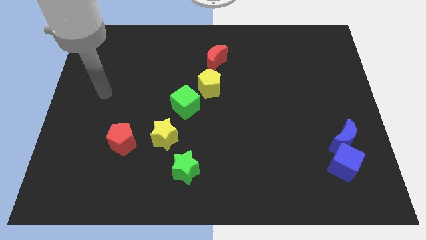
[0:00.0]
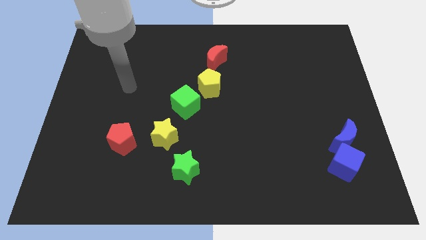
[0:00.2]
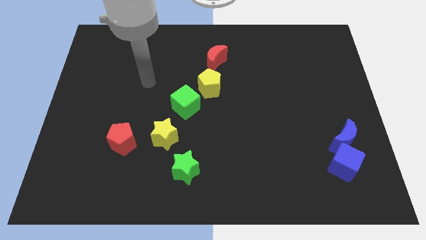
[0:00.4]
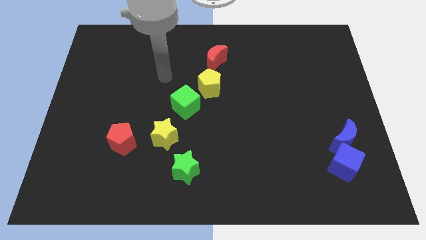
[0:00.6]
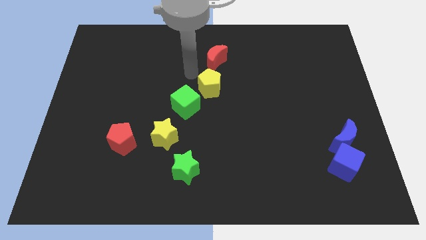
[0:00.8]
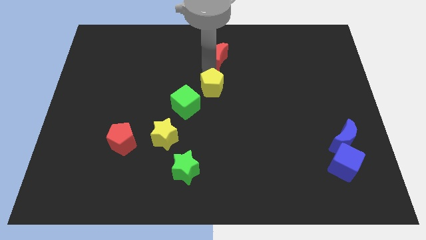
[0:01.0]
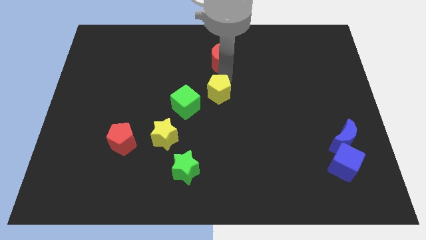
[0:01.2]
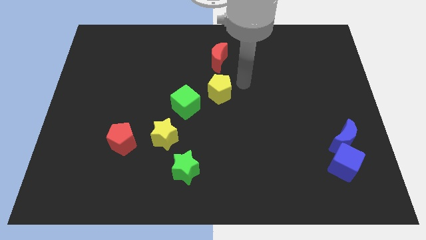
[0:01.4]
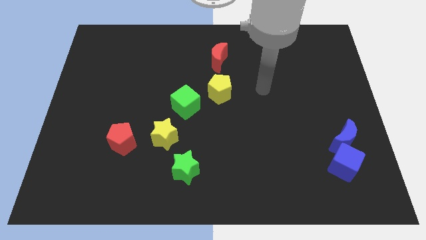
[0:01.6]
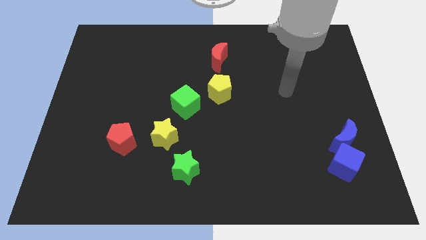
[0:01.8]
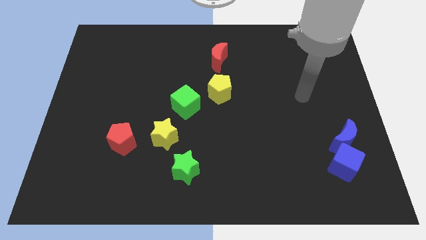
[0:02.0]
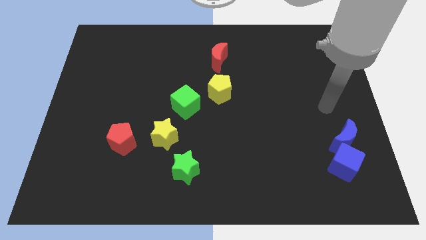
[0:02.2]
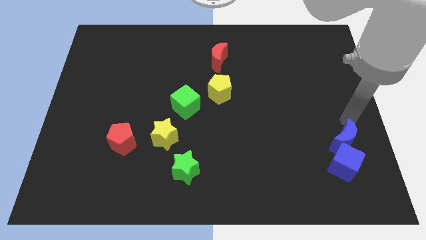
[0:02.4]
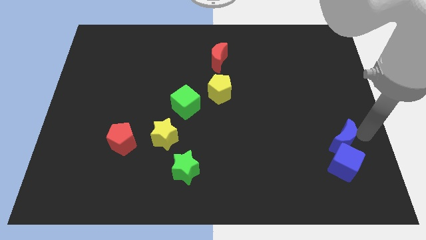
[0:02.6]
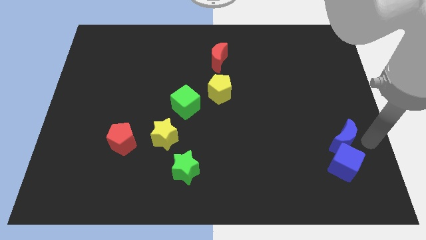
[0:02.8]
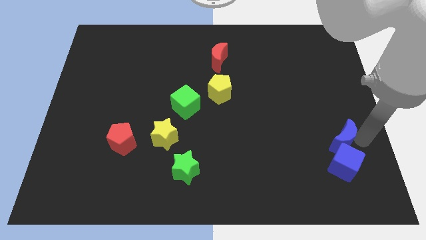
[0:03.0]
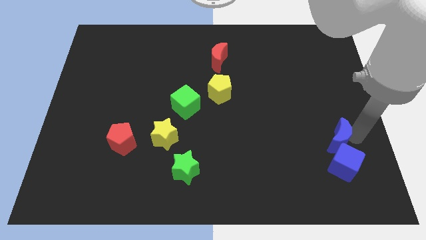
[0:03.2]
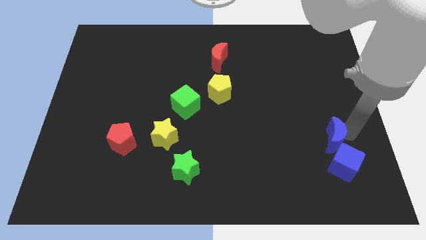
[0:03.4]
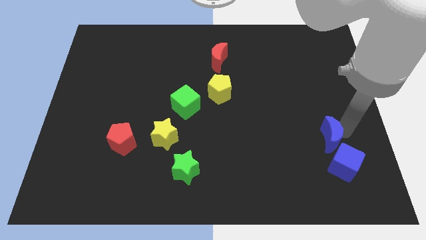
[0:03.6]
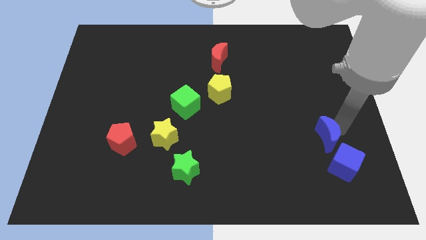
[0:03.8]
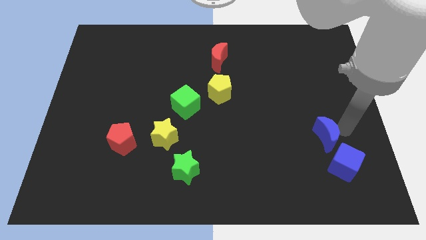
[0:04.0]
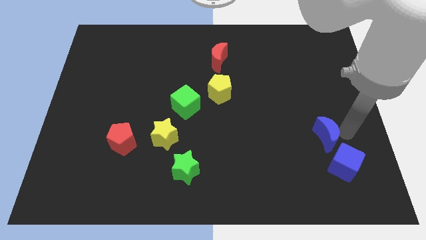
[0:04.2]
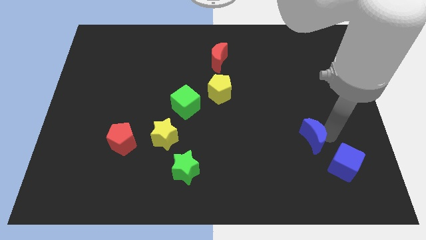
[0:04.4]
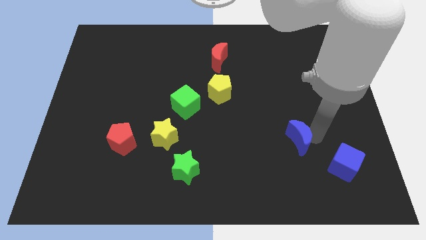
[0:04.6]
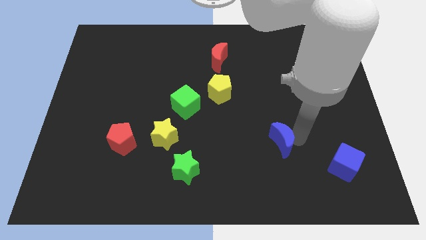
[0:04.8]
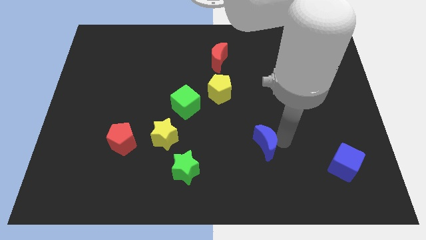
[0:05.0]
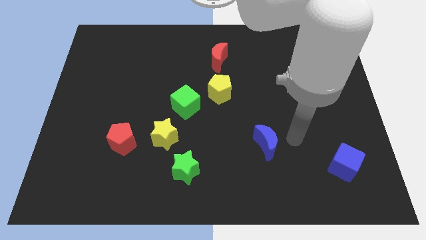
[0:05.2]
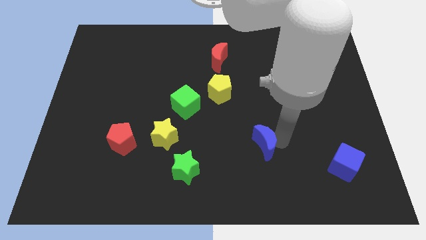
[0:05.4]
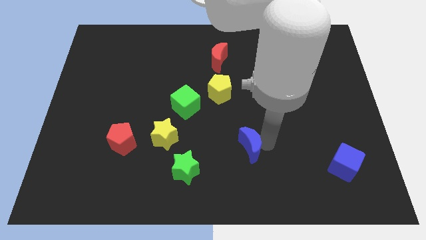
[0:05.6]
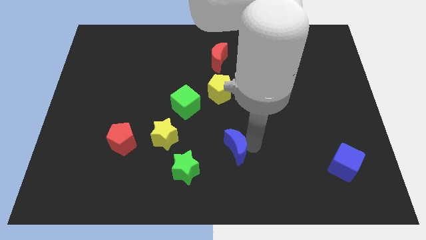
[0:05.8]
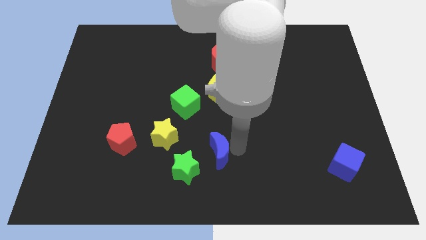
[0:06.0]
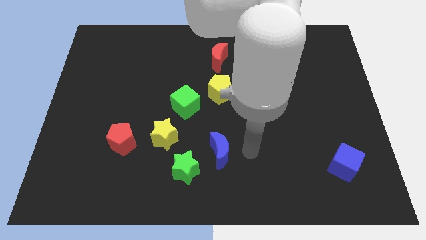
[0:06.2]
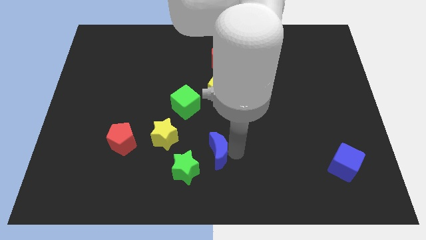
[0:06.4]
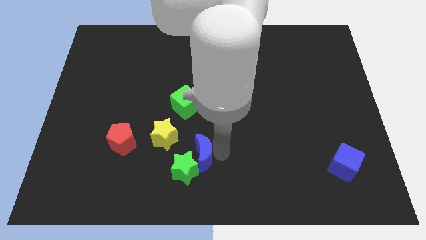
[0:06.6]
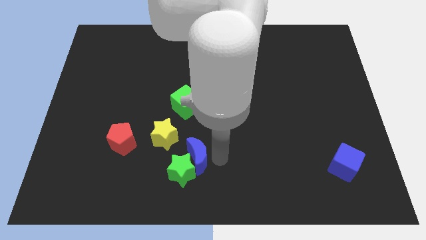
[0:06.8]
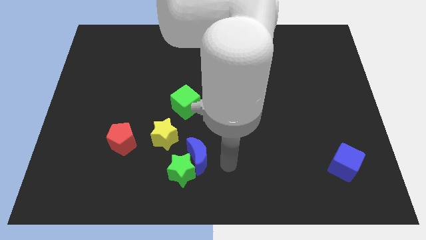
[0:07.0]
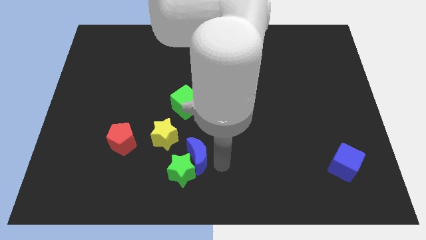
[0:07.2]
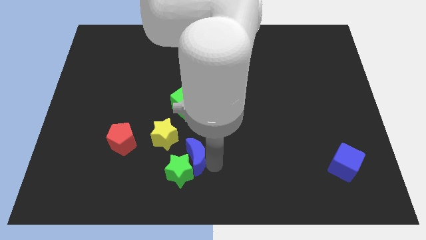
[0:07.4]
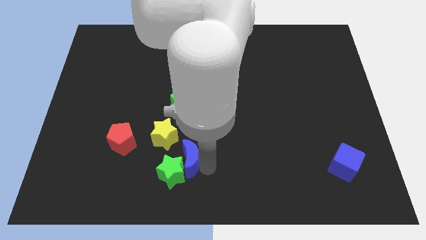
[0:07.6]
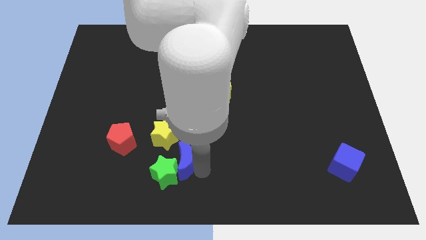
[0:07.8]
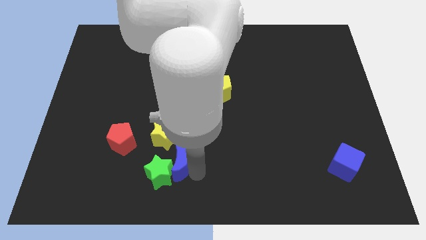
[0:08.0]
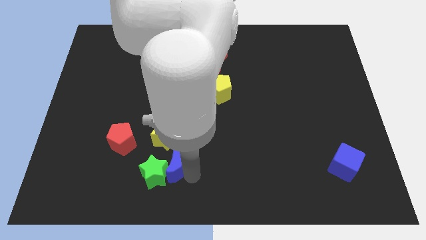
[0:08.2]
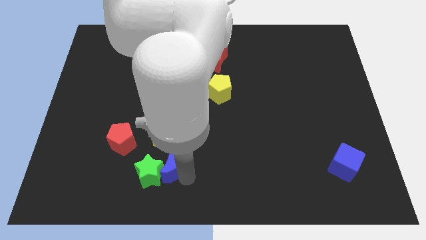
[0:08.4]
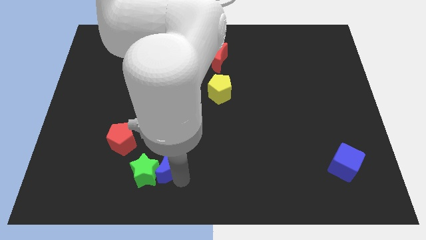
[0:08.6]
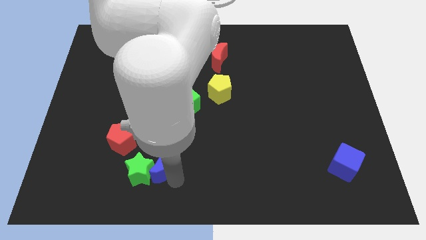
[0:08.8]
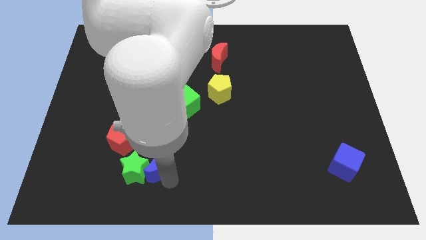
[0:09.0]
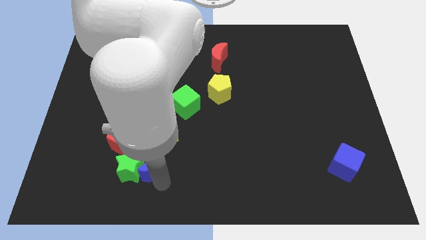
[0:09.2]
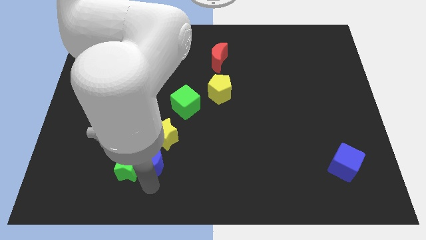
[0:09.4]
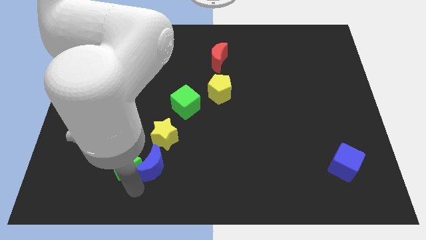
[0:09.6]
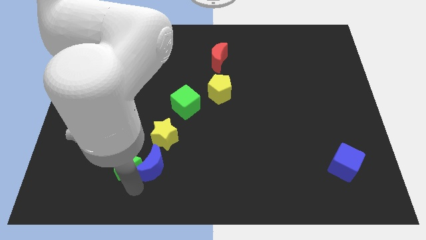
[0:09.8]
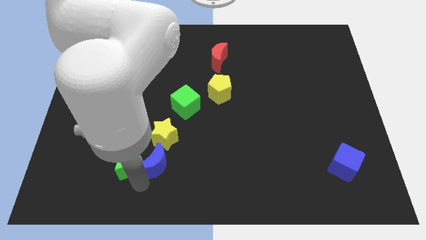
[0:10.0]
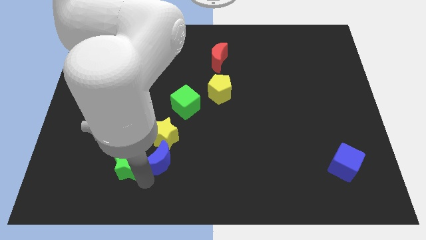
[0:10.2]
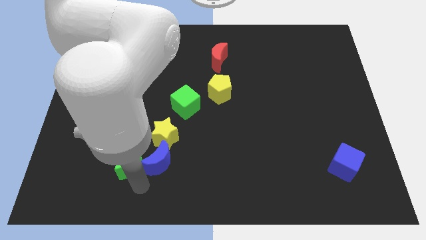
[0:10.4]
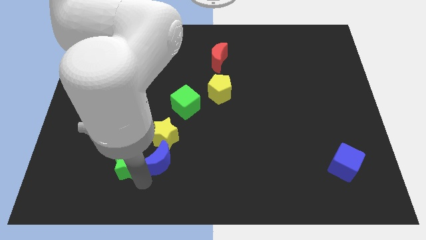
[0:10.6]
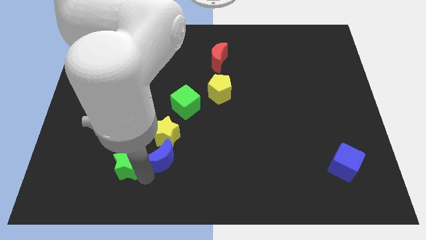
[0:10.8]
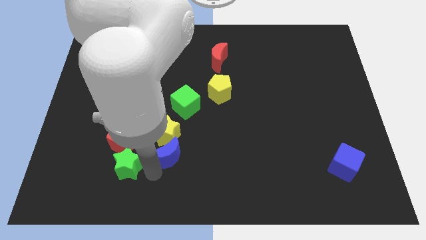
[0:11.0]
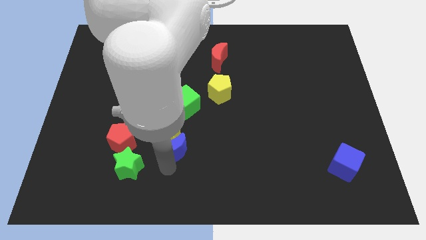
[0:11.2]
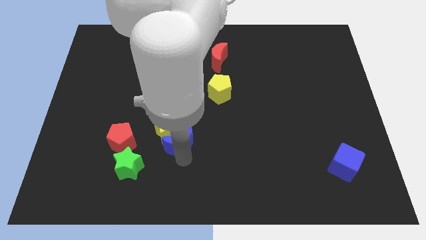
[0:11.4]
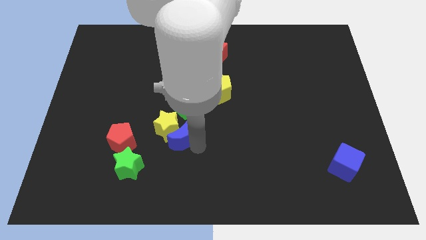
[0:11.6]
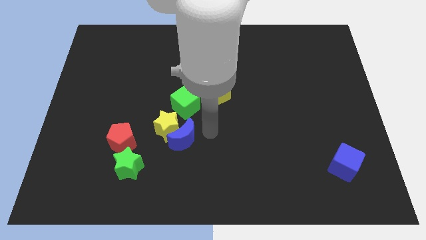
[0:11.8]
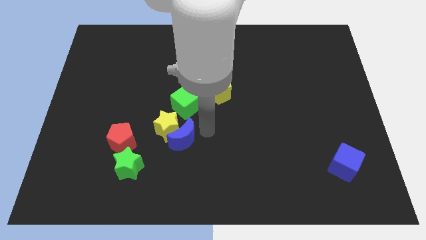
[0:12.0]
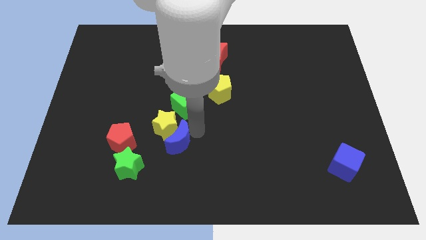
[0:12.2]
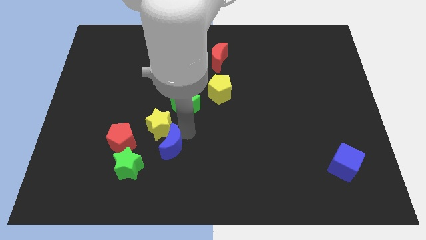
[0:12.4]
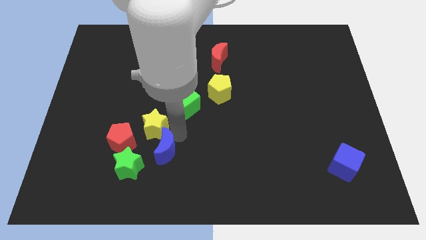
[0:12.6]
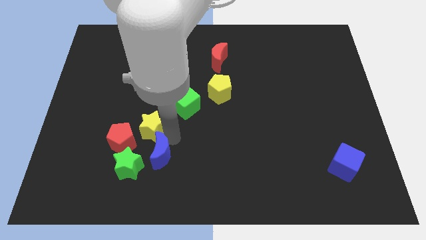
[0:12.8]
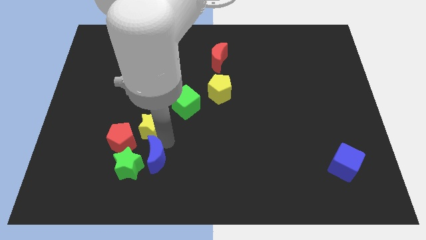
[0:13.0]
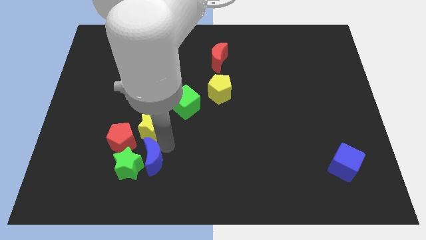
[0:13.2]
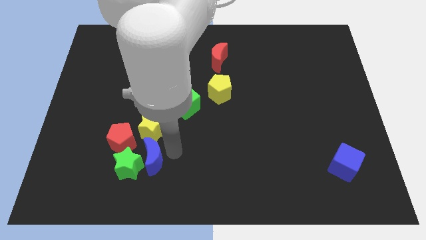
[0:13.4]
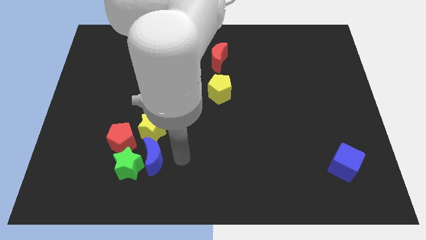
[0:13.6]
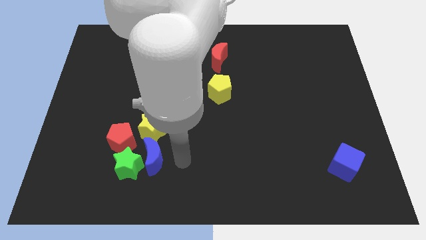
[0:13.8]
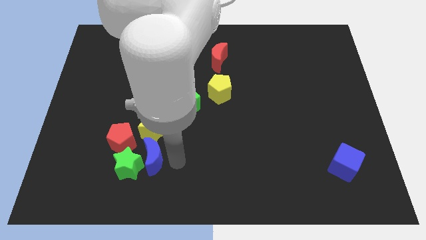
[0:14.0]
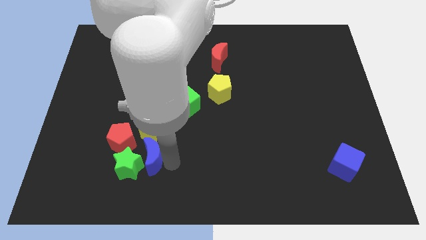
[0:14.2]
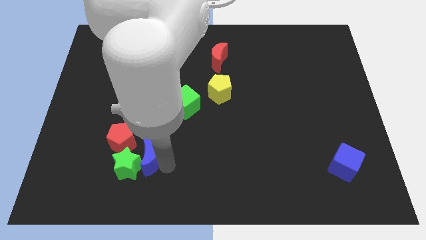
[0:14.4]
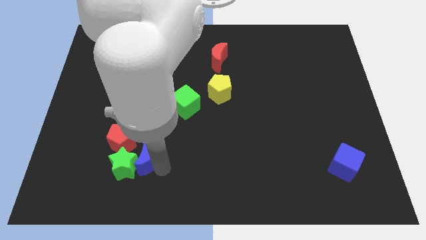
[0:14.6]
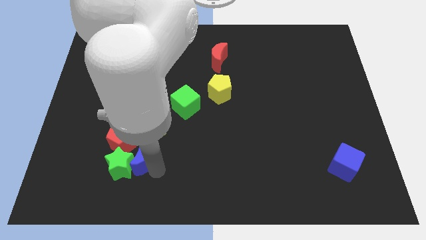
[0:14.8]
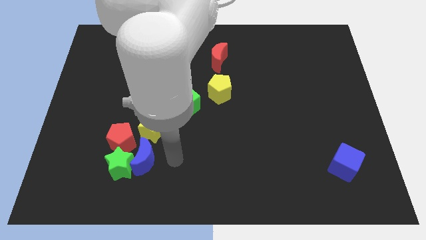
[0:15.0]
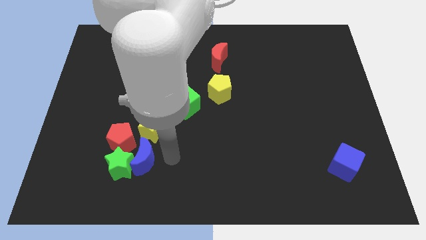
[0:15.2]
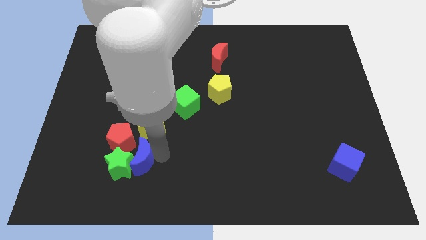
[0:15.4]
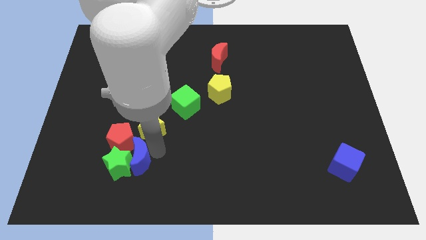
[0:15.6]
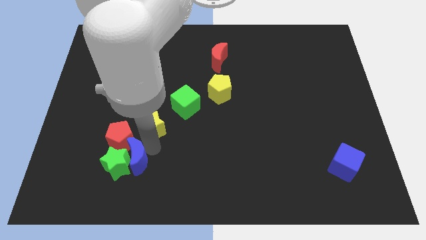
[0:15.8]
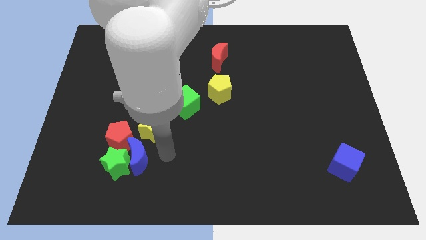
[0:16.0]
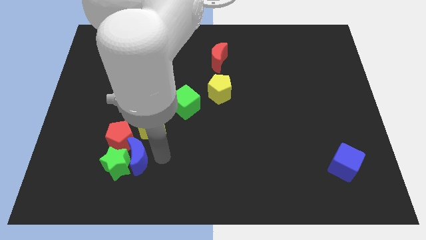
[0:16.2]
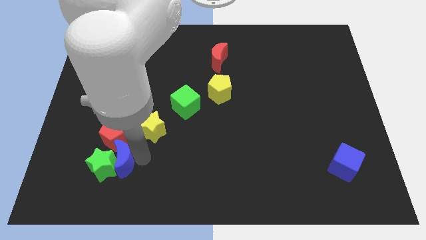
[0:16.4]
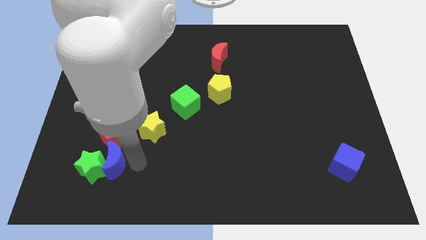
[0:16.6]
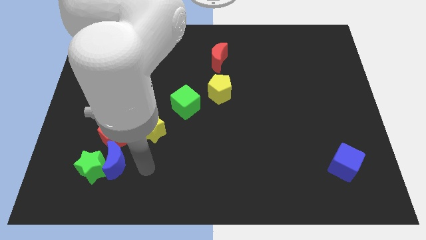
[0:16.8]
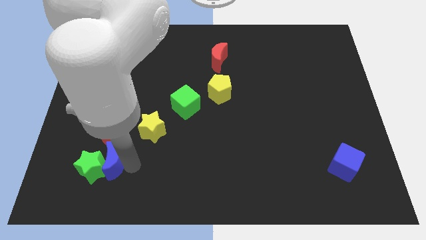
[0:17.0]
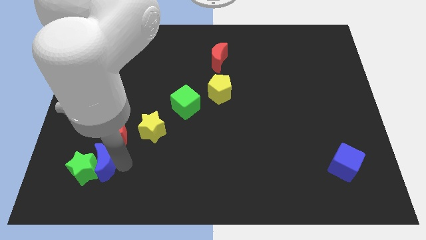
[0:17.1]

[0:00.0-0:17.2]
put the blue moon diagonally down and to the left of the red pentagon
